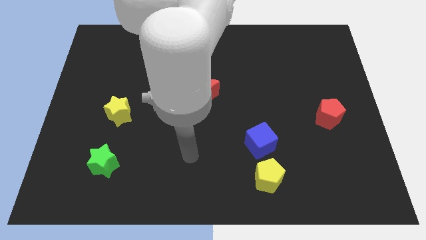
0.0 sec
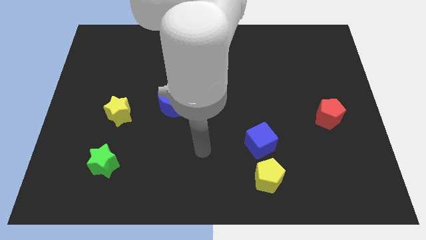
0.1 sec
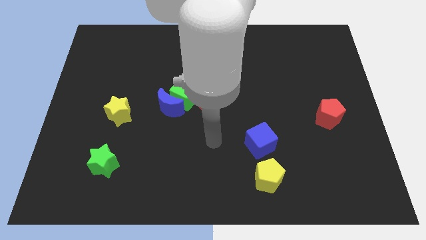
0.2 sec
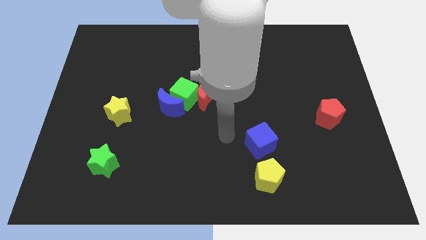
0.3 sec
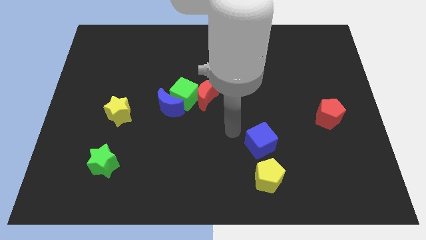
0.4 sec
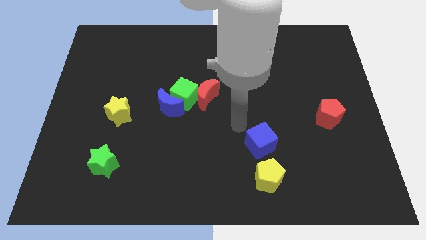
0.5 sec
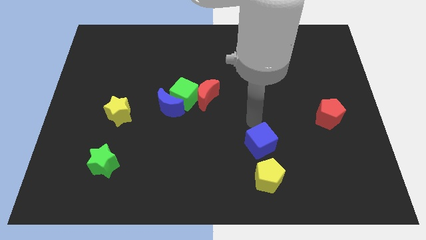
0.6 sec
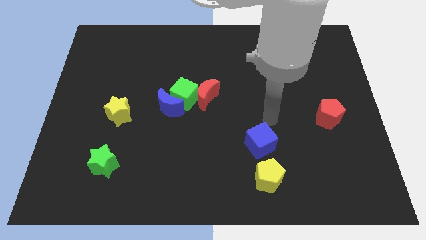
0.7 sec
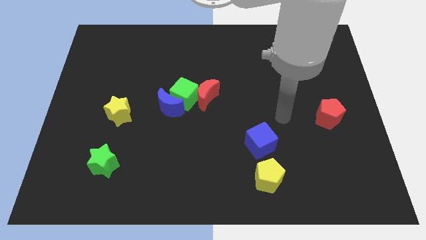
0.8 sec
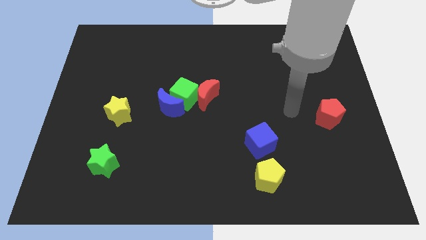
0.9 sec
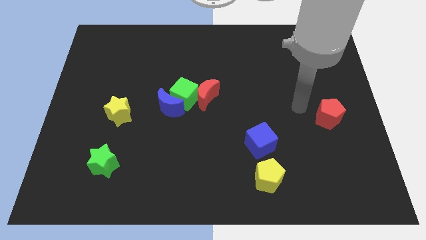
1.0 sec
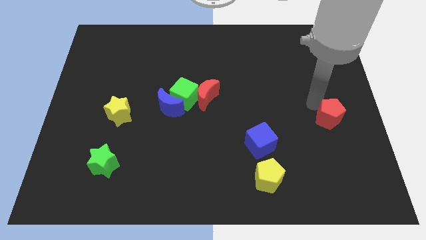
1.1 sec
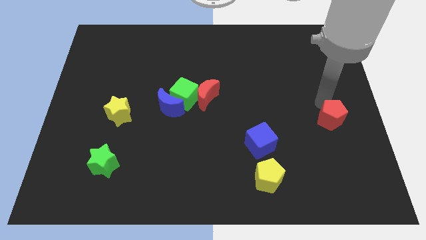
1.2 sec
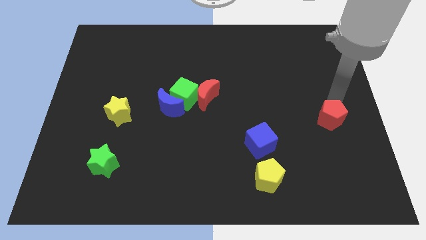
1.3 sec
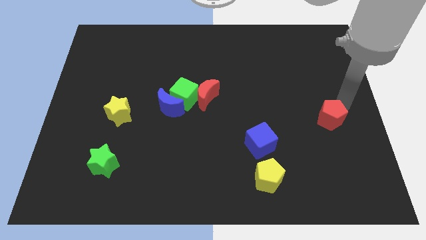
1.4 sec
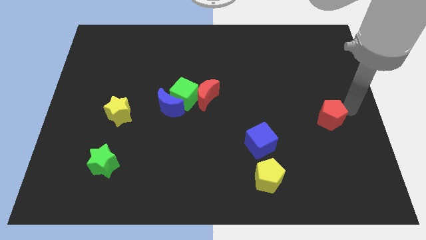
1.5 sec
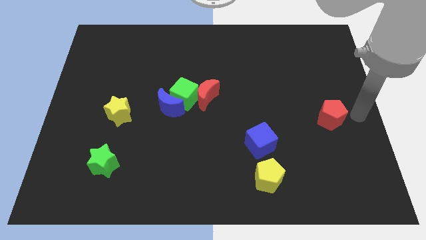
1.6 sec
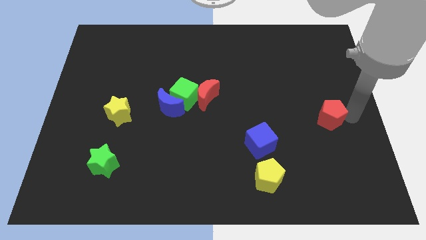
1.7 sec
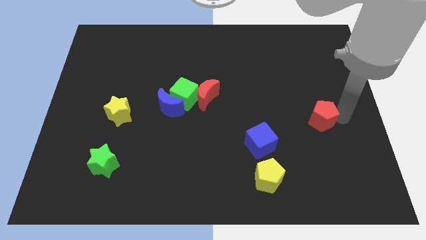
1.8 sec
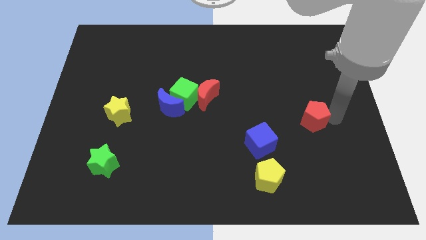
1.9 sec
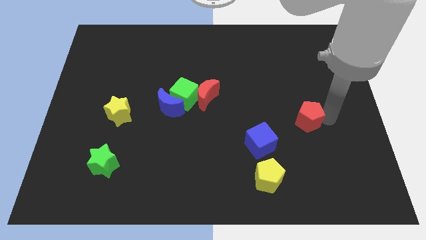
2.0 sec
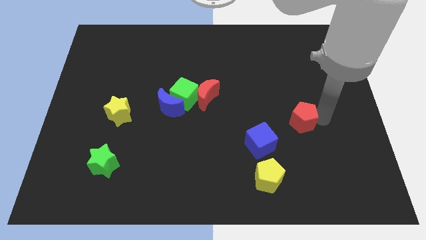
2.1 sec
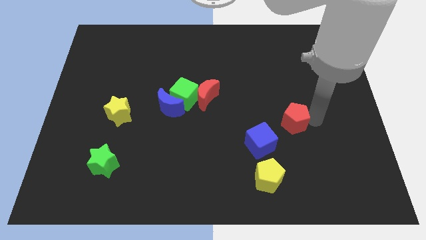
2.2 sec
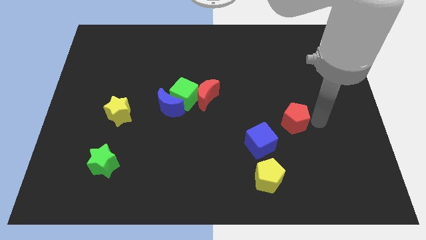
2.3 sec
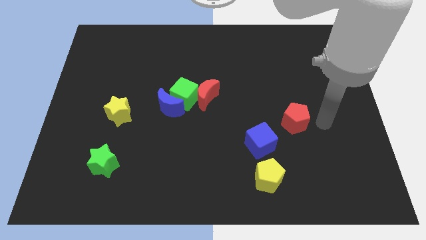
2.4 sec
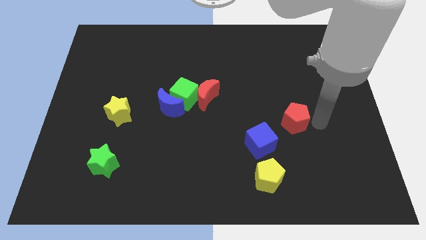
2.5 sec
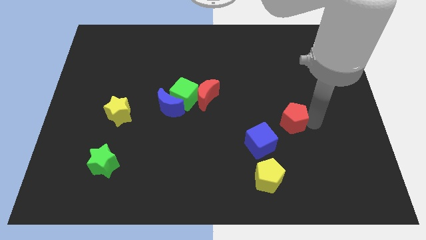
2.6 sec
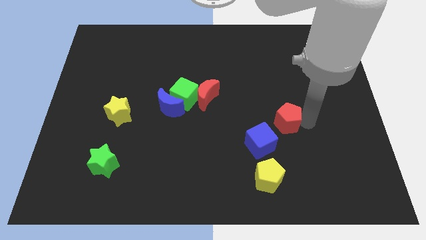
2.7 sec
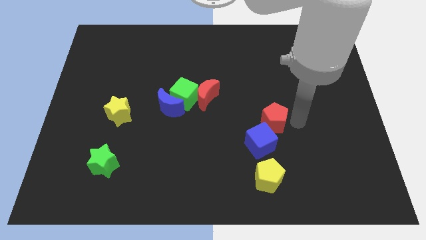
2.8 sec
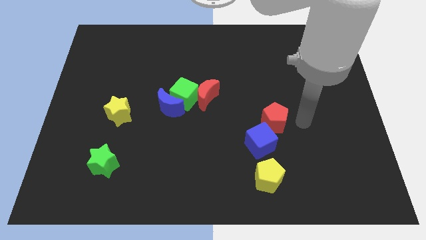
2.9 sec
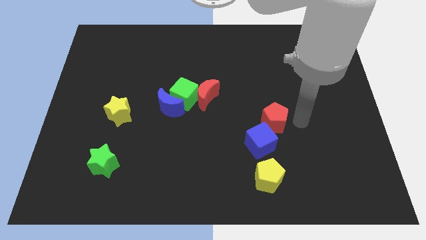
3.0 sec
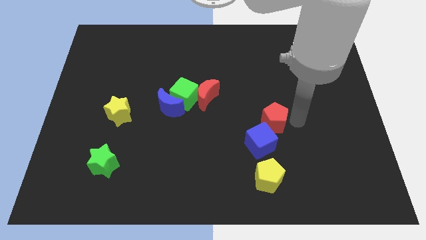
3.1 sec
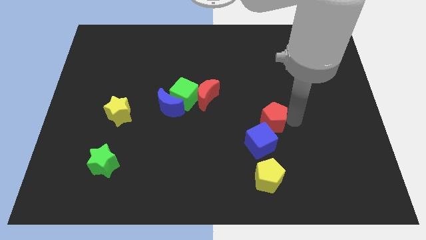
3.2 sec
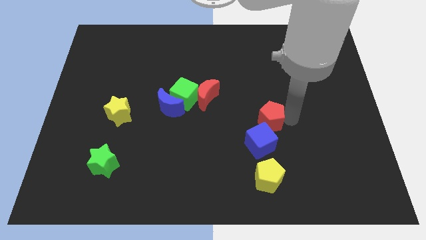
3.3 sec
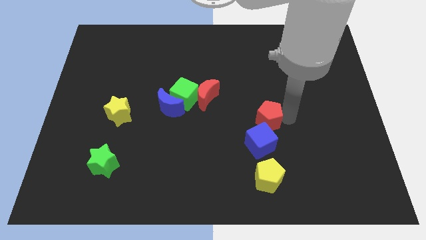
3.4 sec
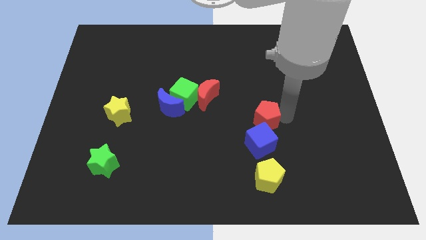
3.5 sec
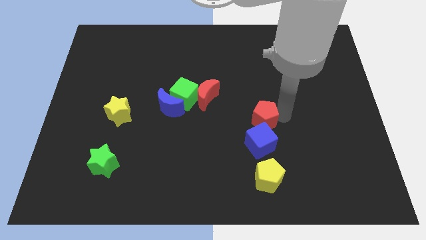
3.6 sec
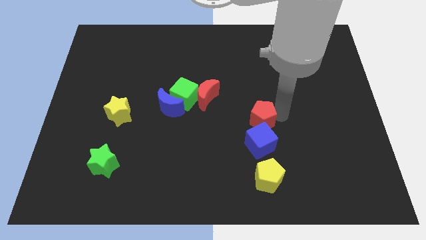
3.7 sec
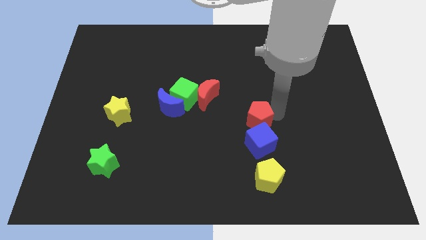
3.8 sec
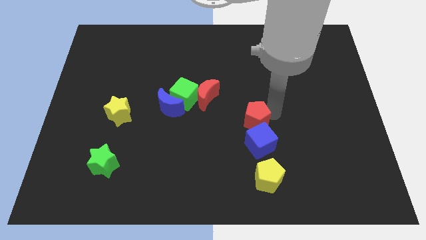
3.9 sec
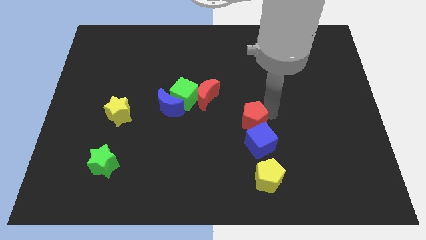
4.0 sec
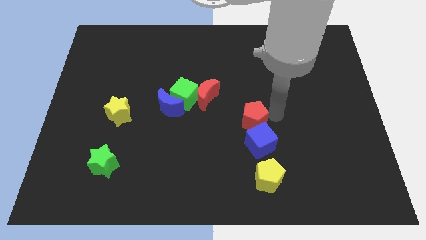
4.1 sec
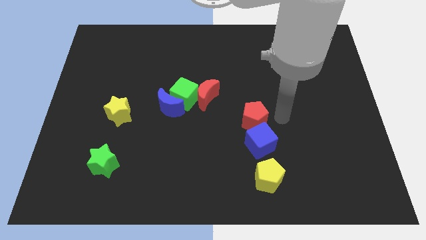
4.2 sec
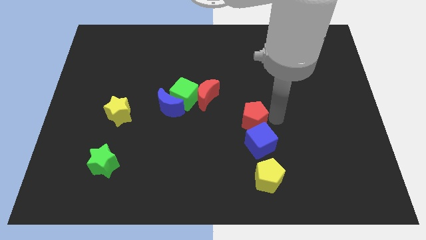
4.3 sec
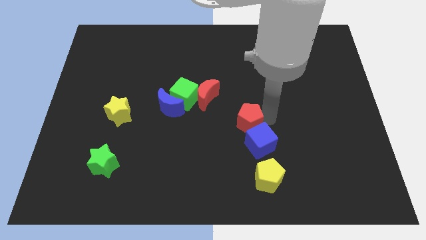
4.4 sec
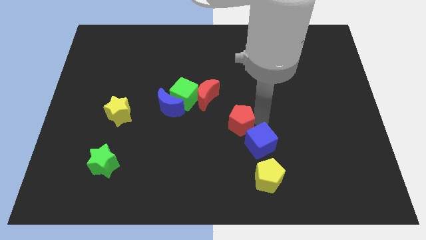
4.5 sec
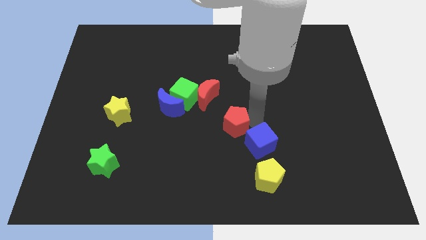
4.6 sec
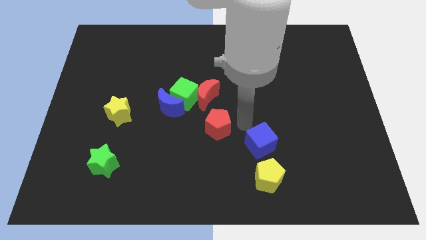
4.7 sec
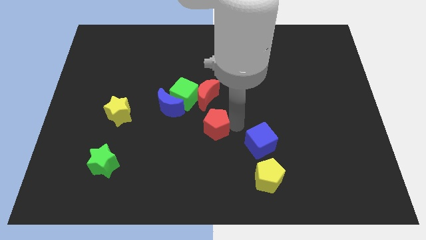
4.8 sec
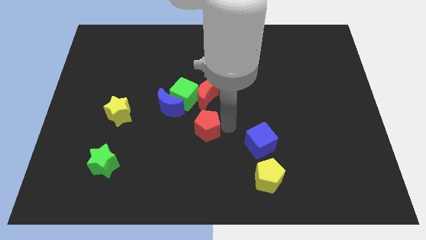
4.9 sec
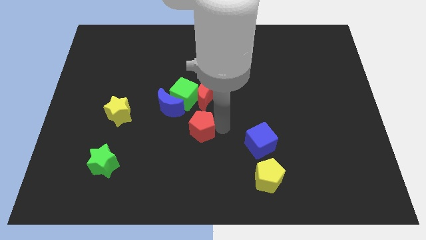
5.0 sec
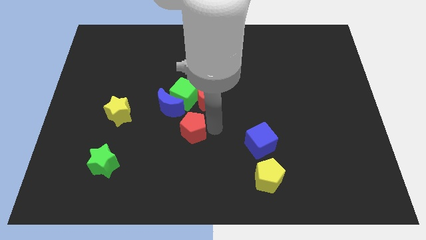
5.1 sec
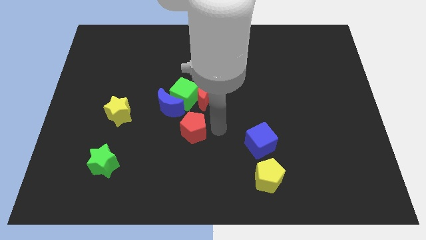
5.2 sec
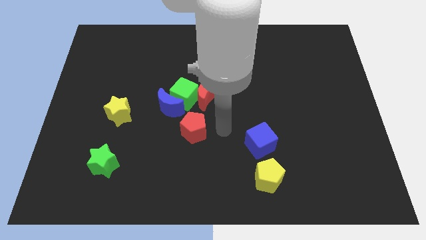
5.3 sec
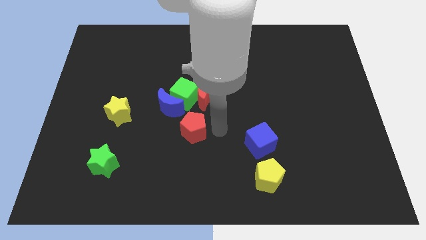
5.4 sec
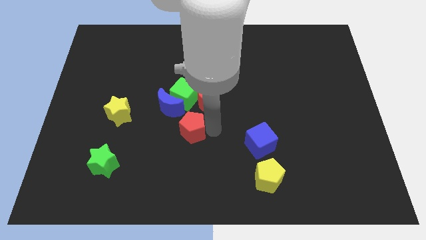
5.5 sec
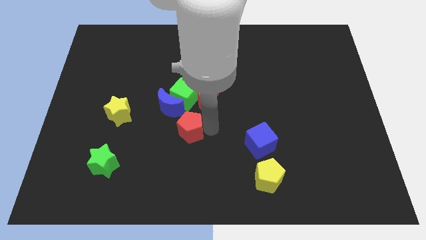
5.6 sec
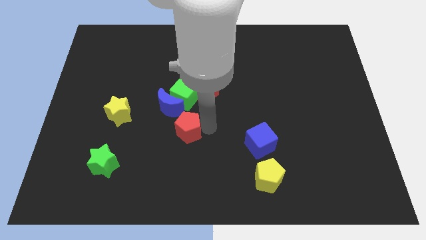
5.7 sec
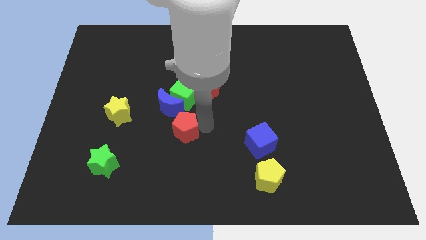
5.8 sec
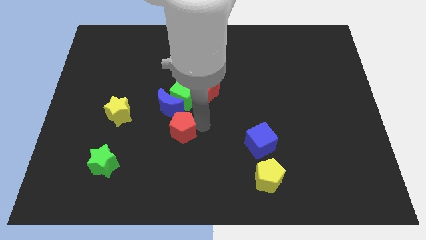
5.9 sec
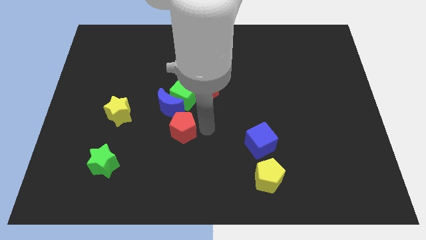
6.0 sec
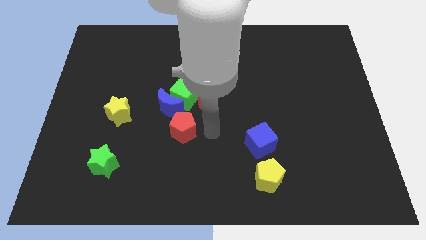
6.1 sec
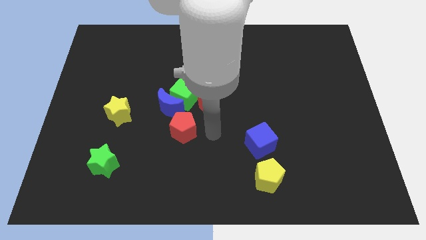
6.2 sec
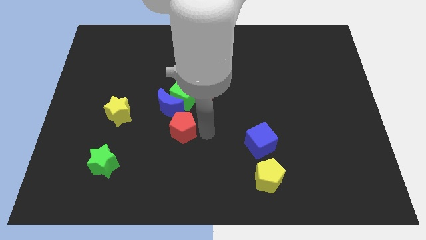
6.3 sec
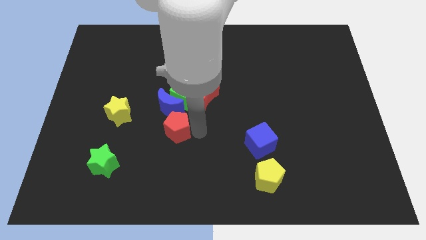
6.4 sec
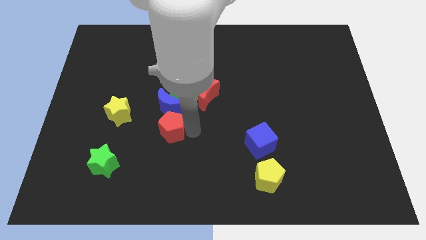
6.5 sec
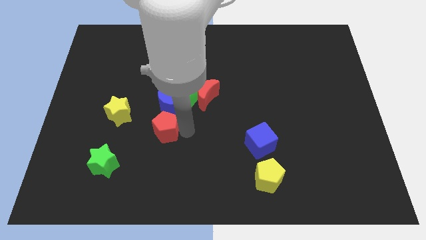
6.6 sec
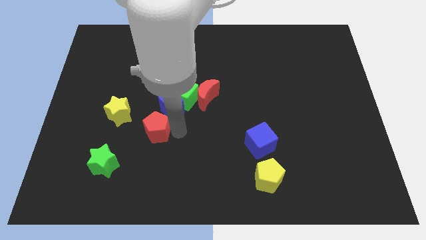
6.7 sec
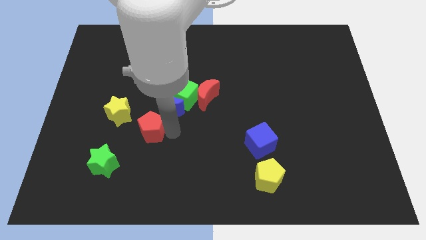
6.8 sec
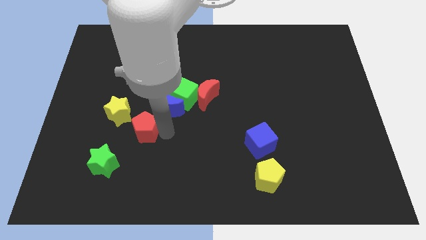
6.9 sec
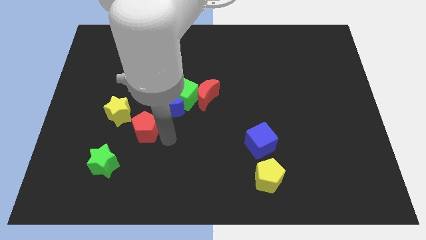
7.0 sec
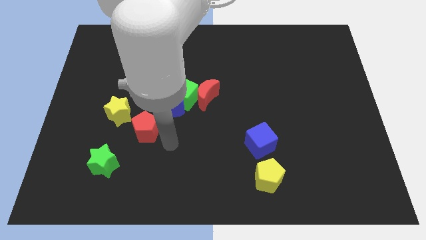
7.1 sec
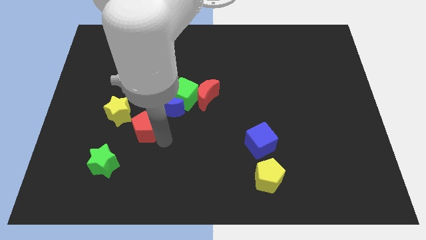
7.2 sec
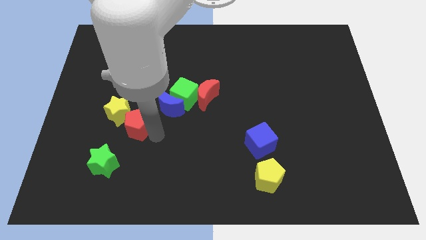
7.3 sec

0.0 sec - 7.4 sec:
put the red pentagon towards the yellow star
